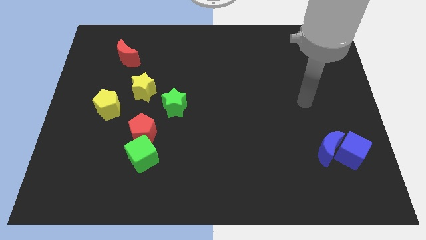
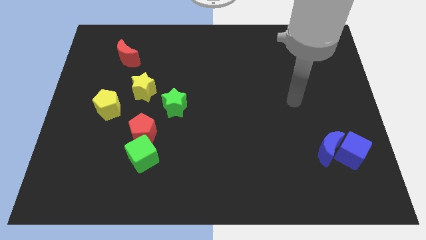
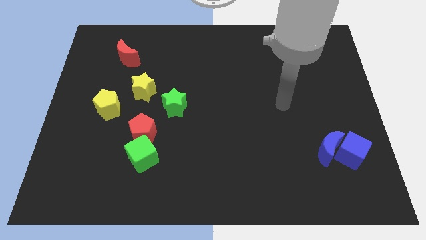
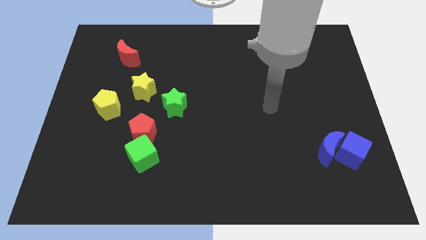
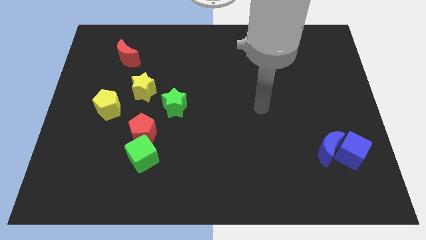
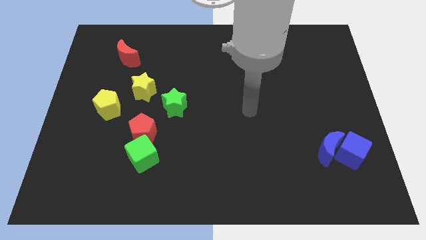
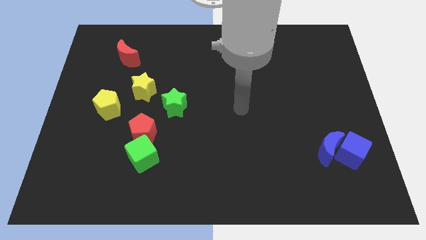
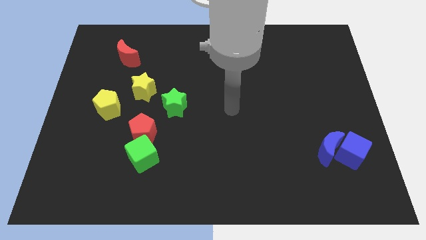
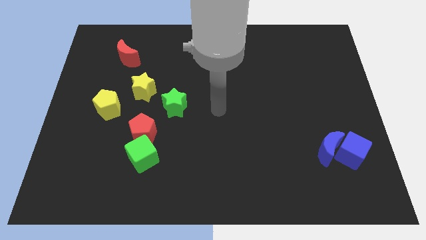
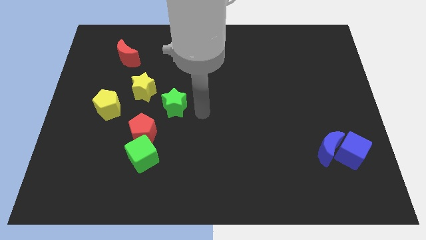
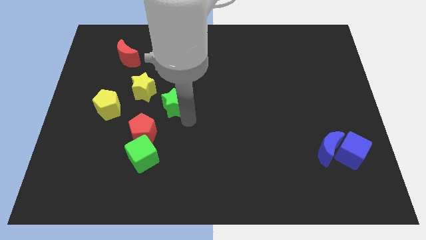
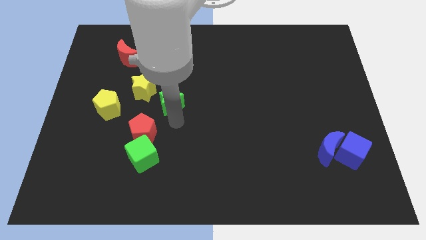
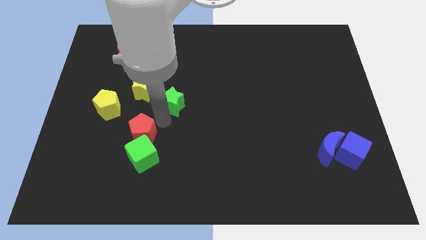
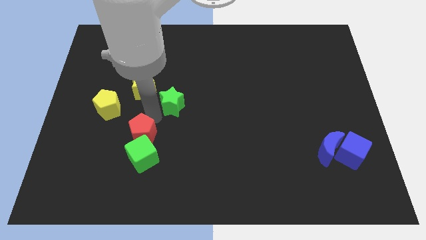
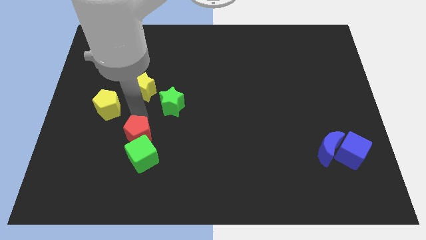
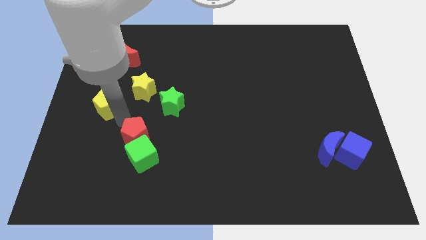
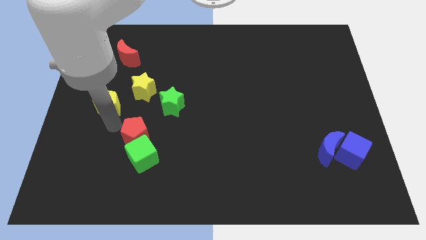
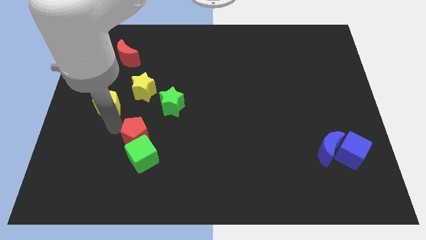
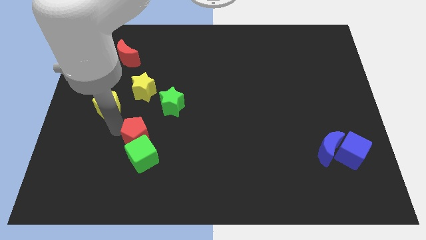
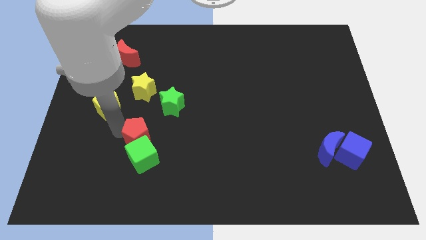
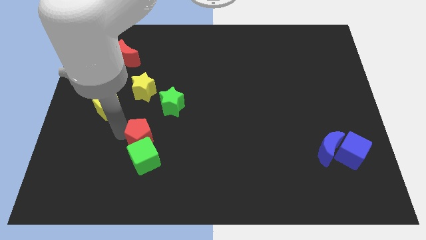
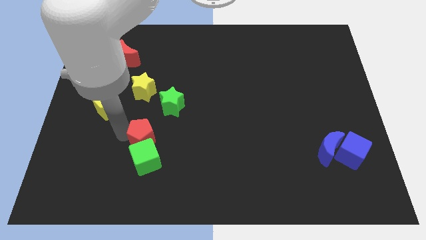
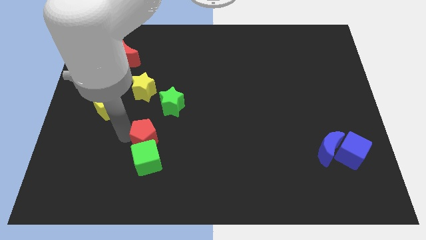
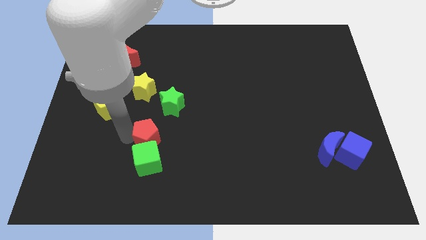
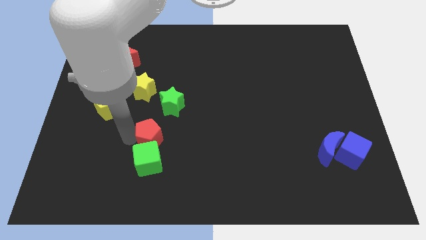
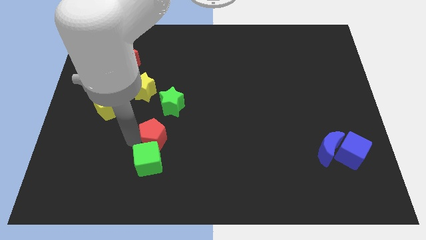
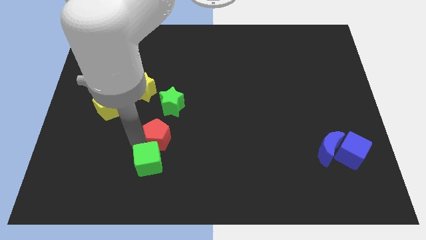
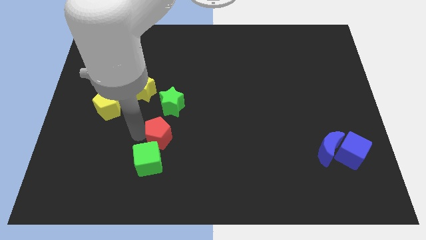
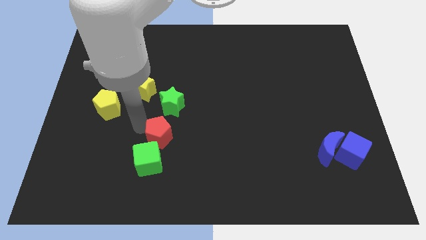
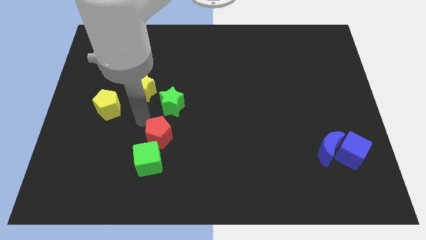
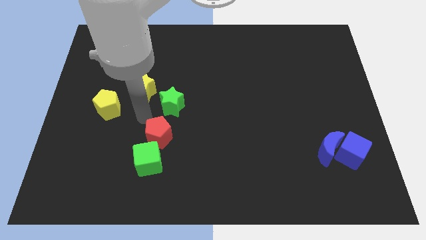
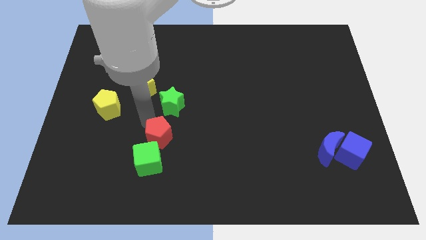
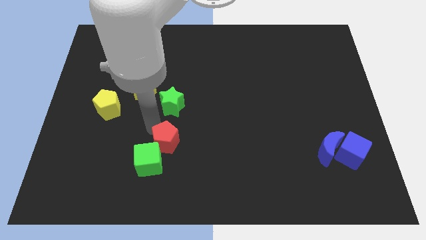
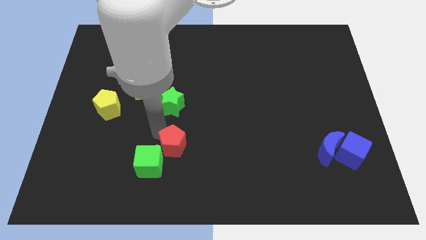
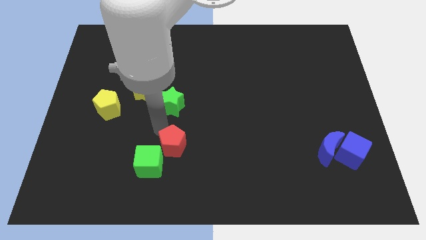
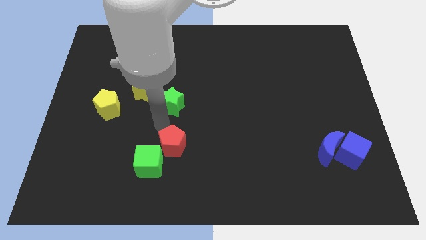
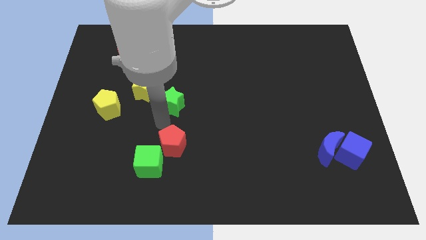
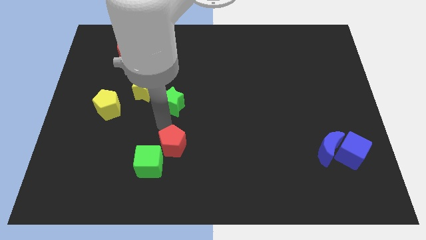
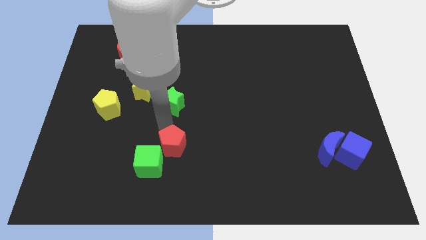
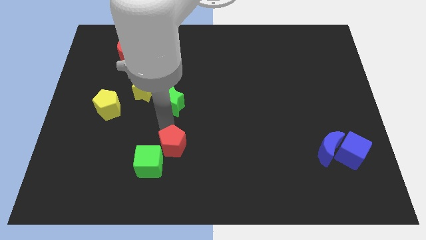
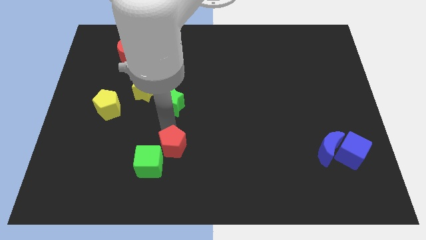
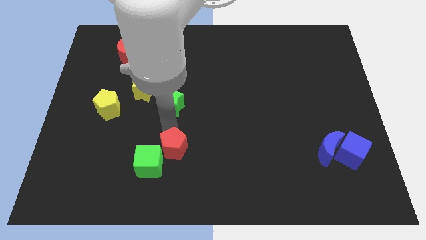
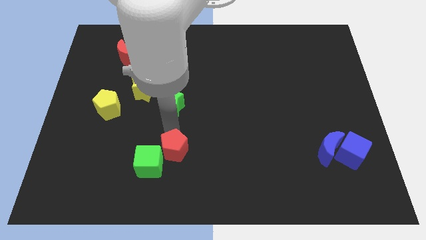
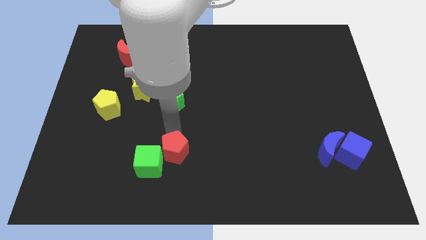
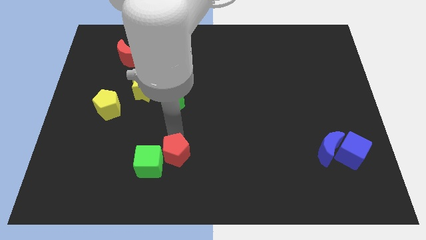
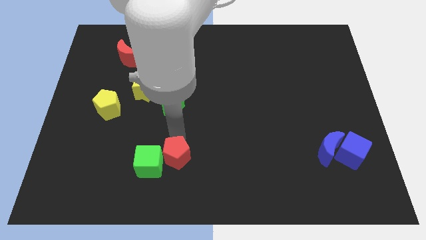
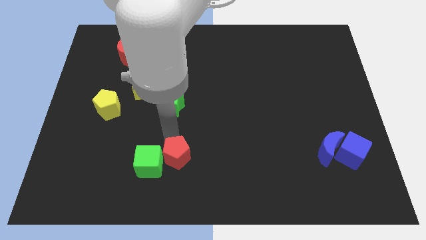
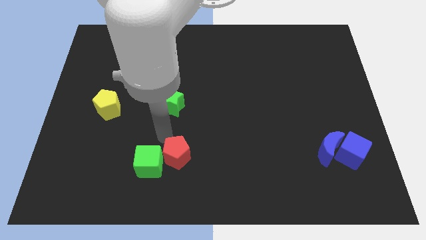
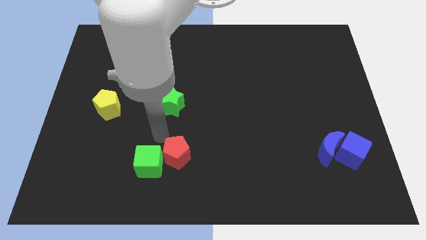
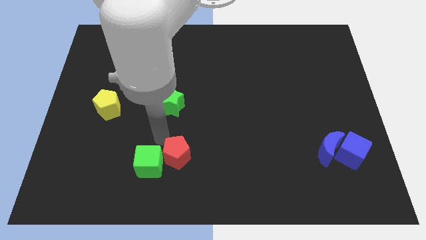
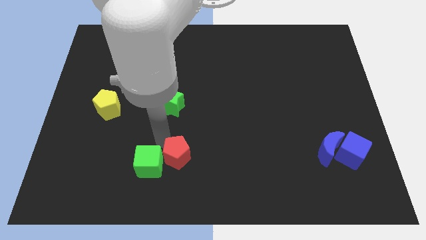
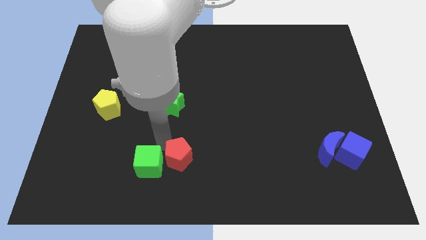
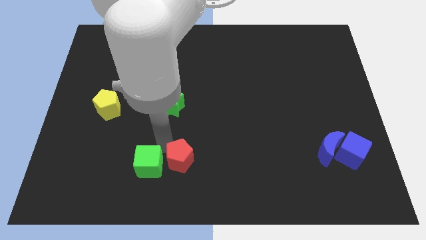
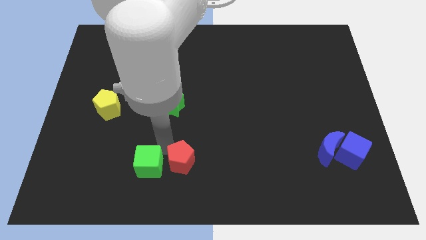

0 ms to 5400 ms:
put the red pentagon to the bottom

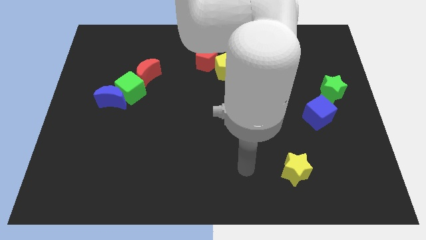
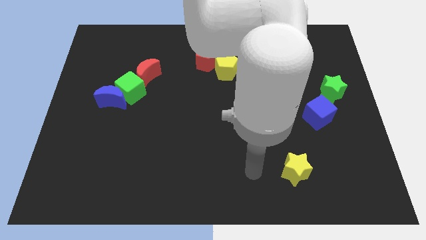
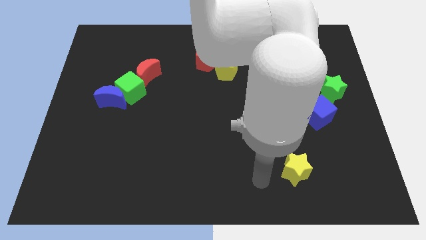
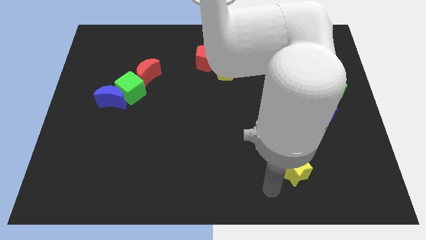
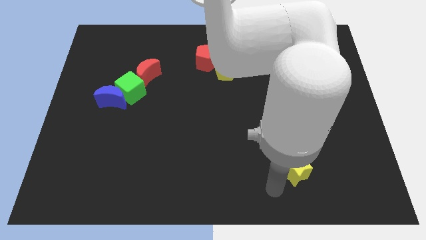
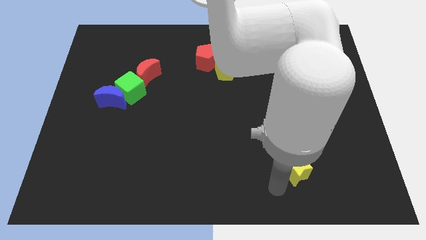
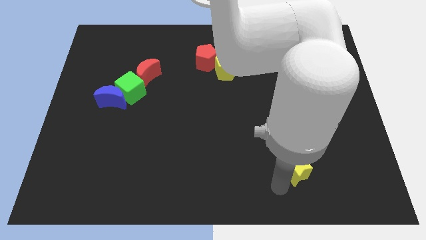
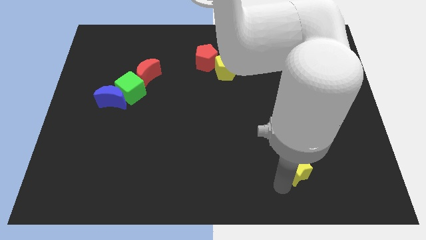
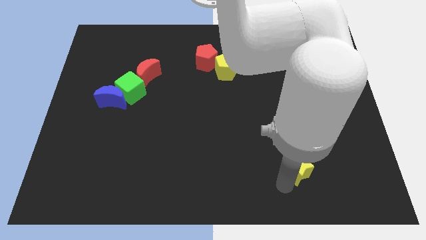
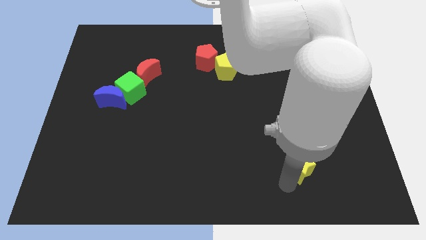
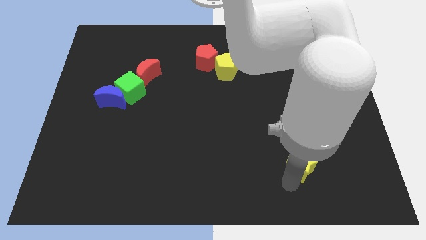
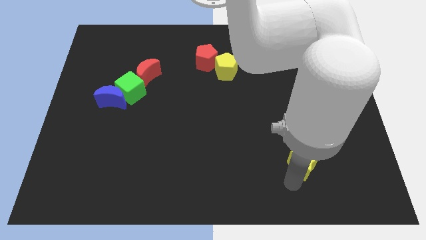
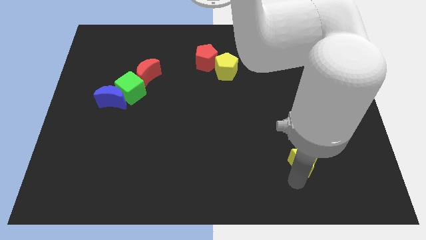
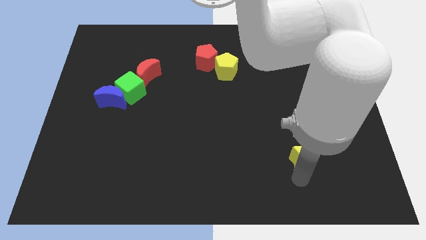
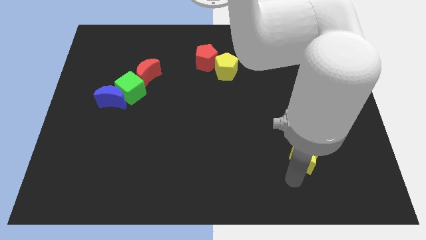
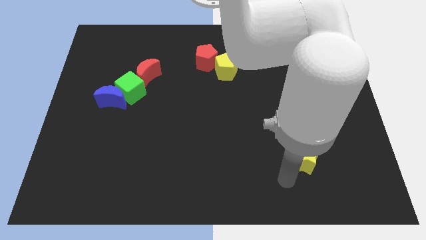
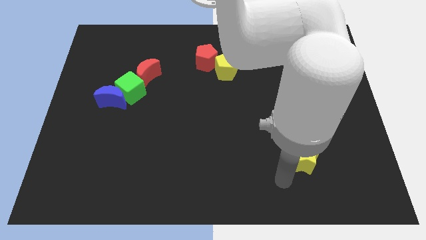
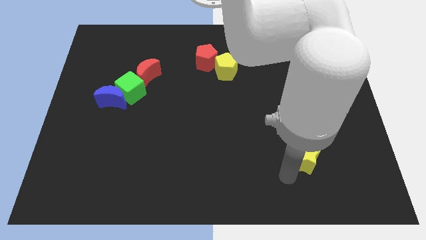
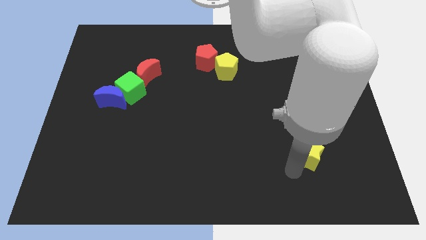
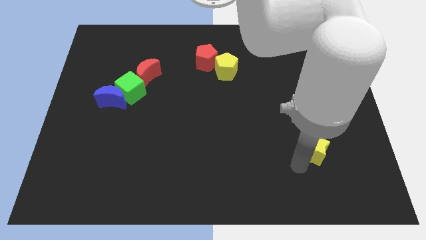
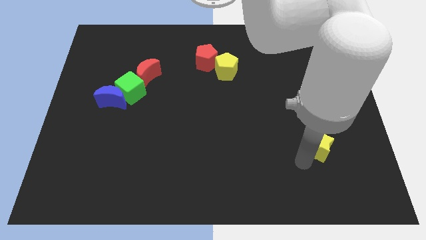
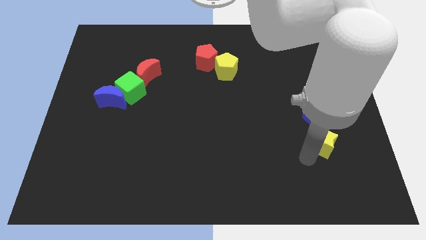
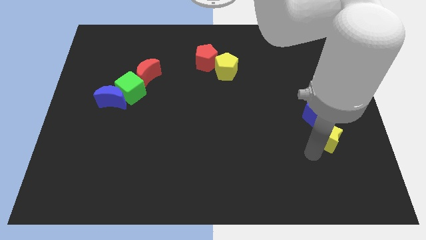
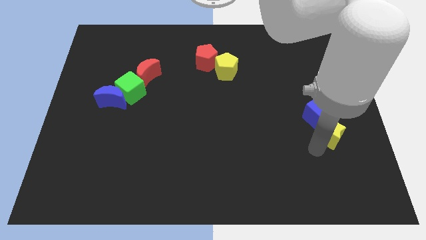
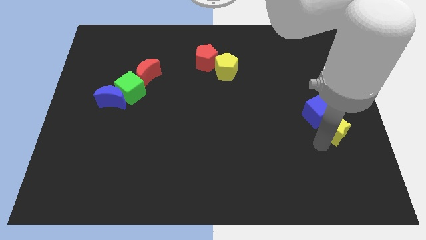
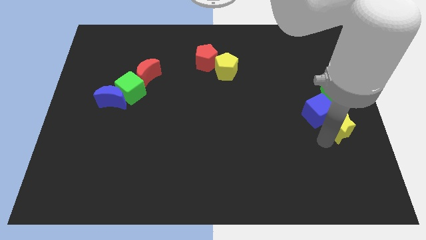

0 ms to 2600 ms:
slide the yellow star to the right side of the board
